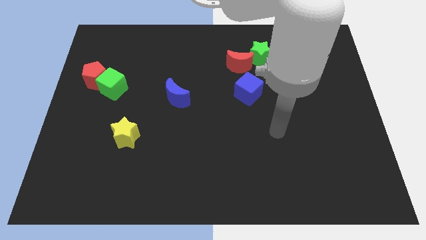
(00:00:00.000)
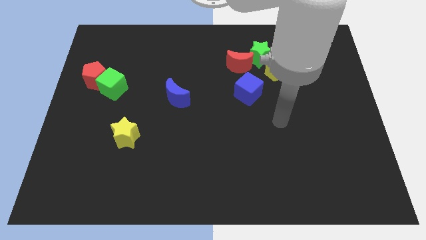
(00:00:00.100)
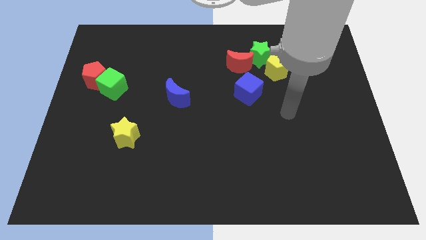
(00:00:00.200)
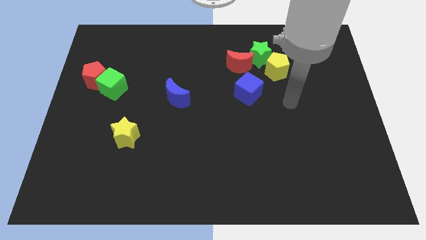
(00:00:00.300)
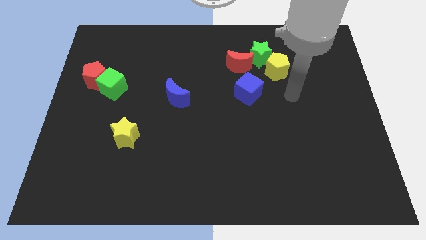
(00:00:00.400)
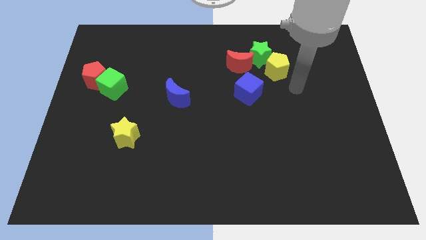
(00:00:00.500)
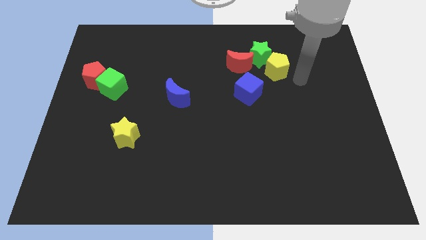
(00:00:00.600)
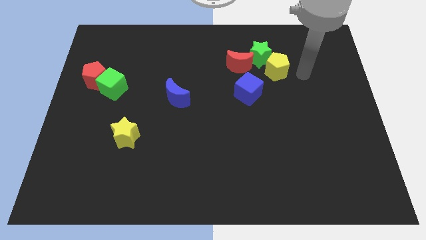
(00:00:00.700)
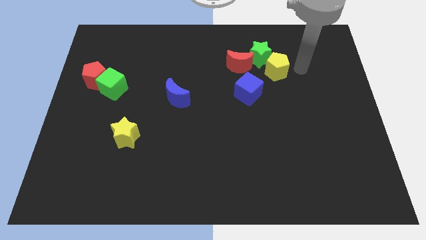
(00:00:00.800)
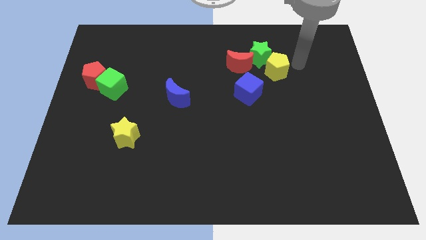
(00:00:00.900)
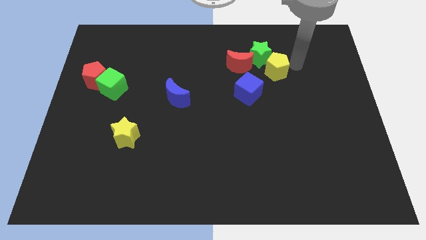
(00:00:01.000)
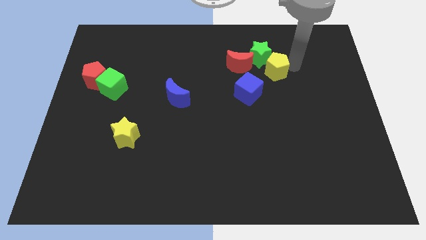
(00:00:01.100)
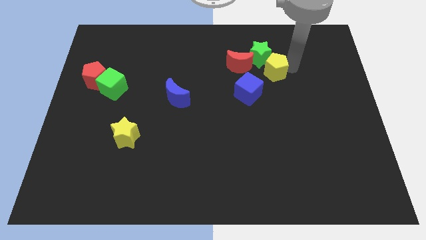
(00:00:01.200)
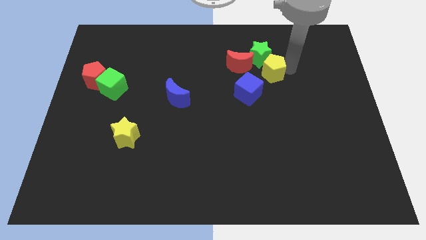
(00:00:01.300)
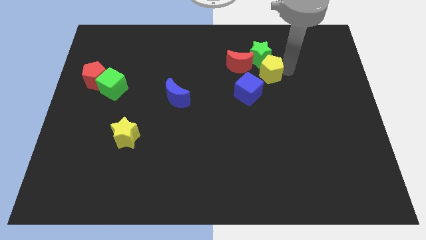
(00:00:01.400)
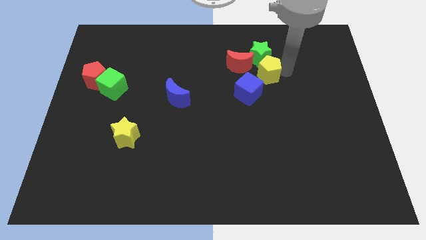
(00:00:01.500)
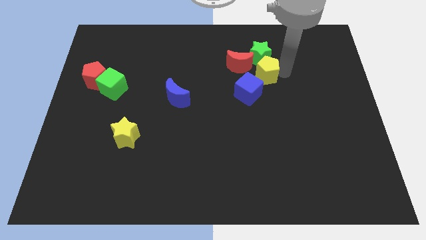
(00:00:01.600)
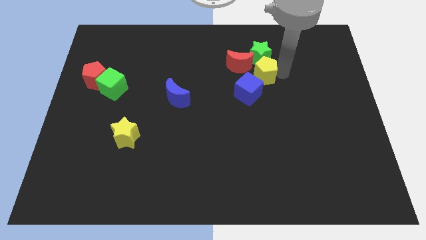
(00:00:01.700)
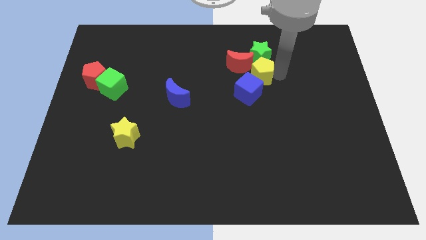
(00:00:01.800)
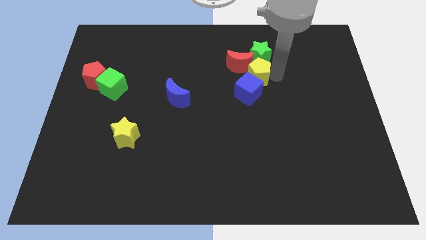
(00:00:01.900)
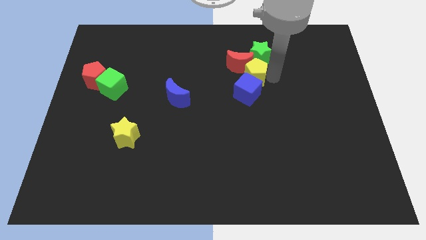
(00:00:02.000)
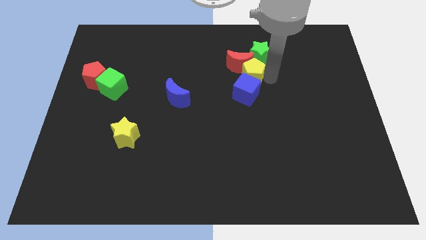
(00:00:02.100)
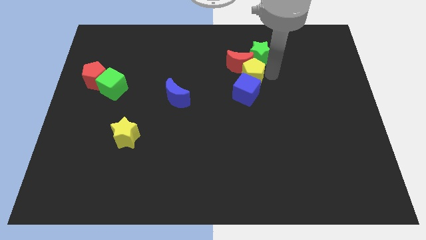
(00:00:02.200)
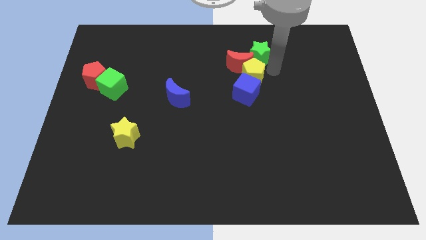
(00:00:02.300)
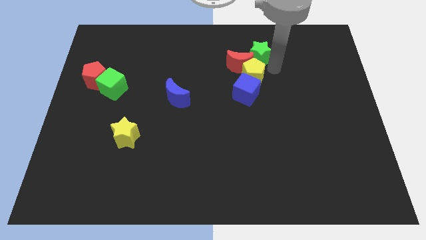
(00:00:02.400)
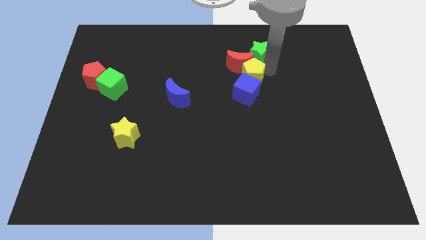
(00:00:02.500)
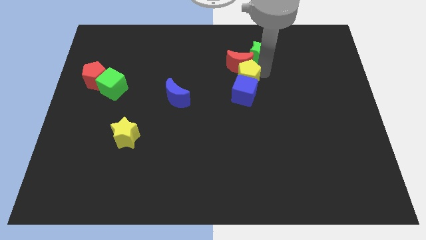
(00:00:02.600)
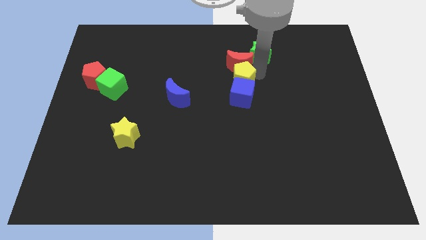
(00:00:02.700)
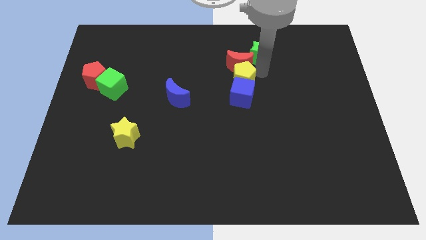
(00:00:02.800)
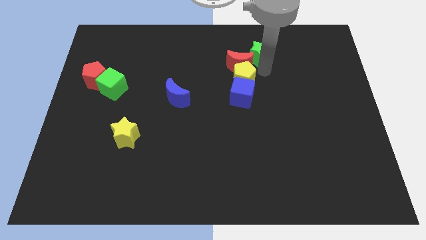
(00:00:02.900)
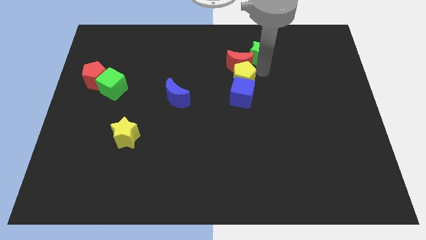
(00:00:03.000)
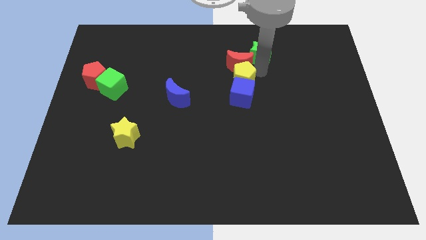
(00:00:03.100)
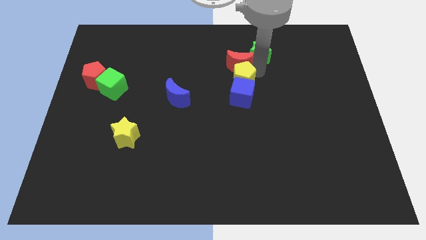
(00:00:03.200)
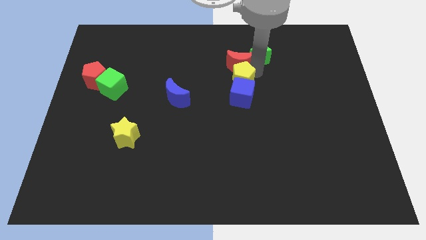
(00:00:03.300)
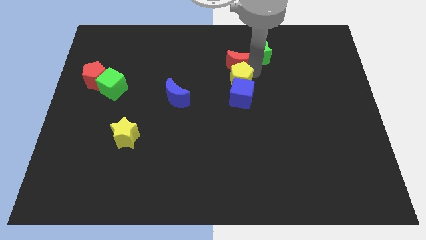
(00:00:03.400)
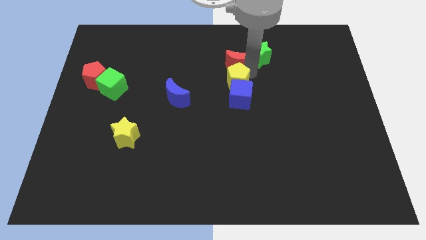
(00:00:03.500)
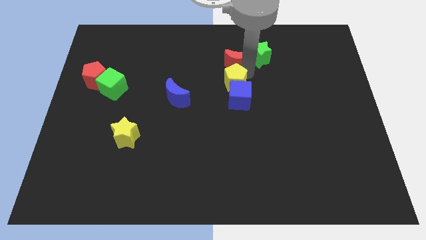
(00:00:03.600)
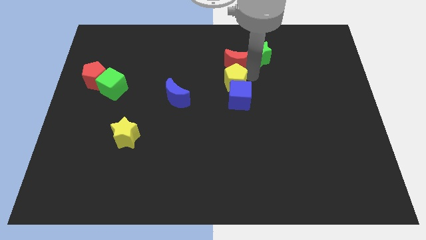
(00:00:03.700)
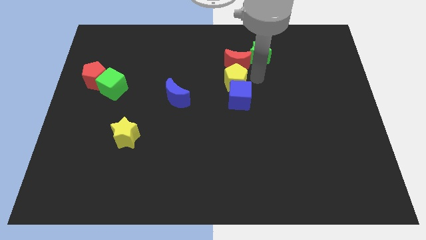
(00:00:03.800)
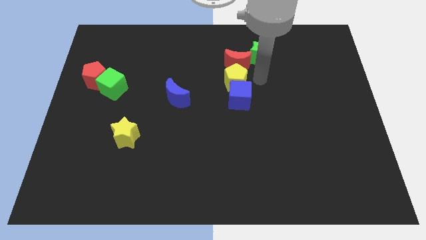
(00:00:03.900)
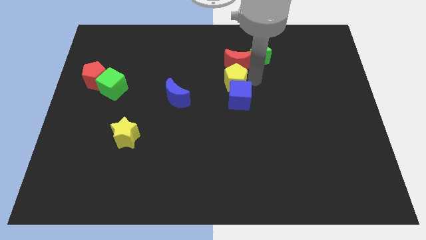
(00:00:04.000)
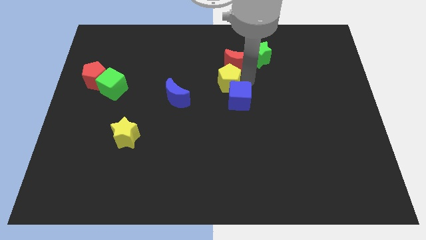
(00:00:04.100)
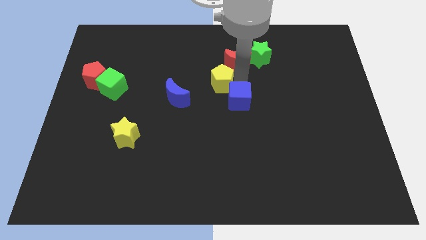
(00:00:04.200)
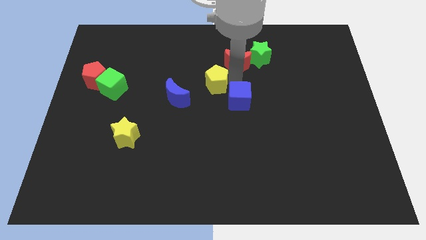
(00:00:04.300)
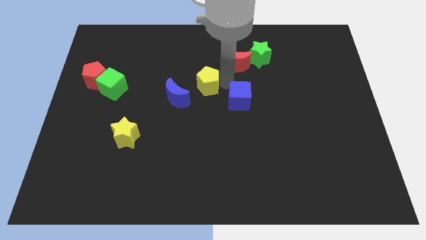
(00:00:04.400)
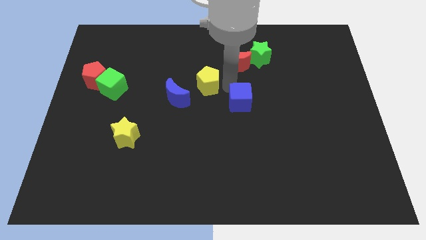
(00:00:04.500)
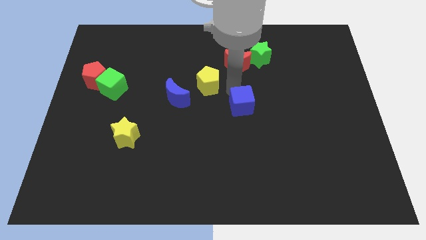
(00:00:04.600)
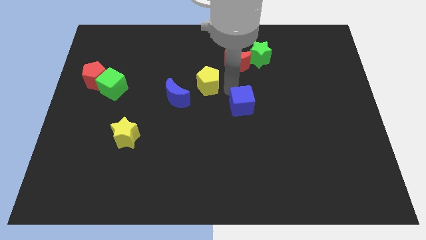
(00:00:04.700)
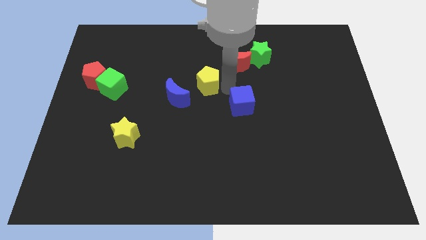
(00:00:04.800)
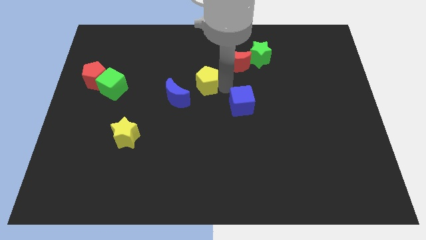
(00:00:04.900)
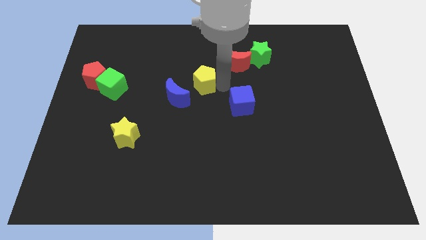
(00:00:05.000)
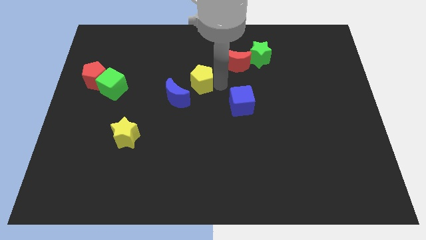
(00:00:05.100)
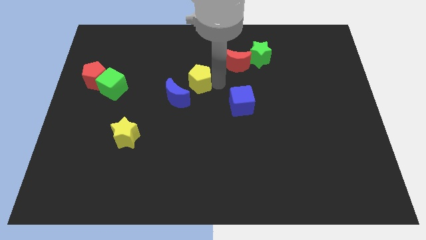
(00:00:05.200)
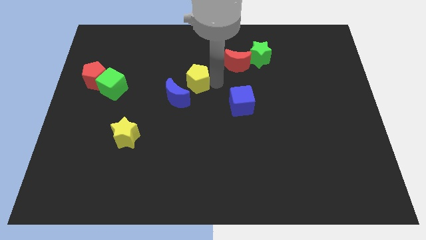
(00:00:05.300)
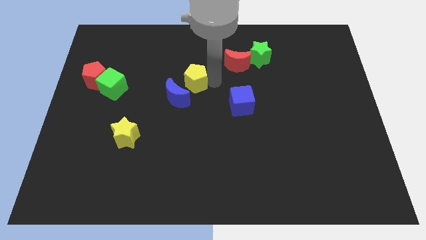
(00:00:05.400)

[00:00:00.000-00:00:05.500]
move the yellow pentagon to the left

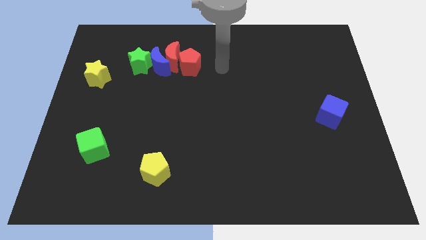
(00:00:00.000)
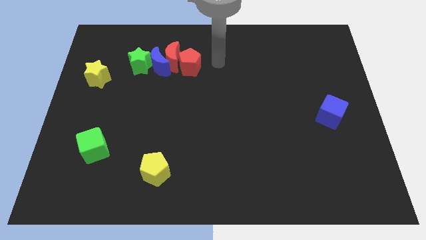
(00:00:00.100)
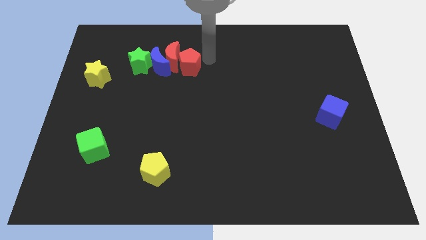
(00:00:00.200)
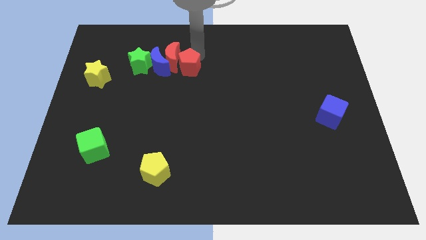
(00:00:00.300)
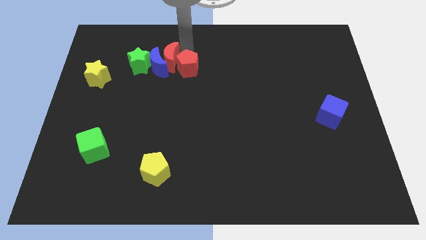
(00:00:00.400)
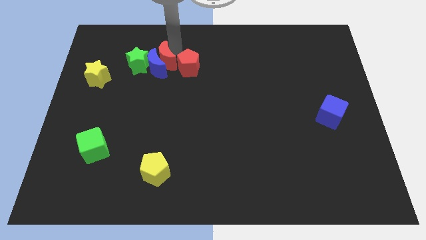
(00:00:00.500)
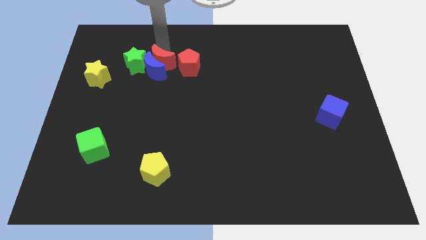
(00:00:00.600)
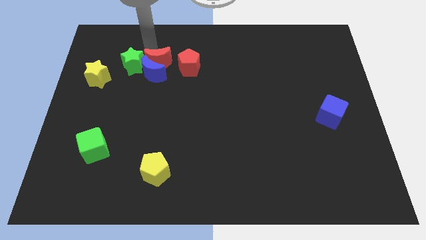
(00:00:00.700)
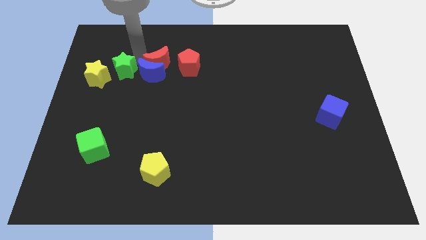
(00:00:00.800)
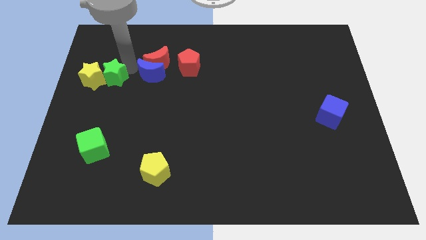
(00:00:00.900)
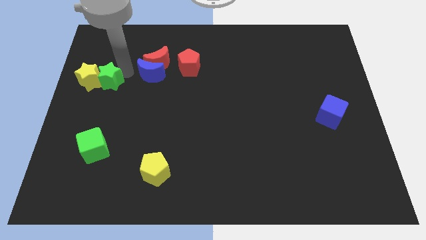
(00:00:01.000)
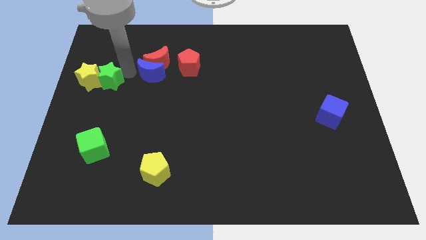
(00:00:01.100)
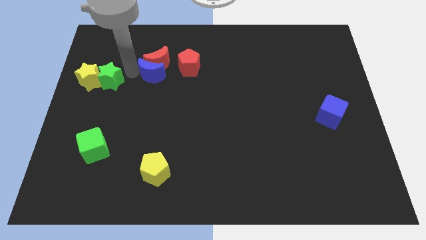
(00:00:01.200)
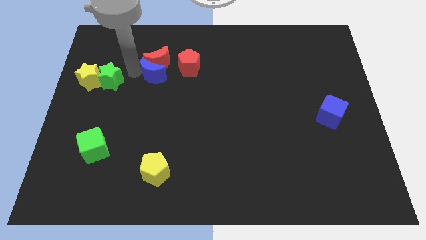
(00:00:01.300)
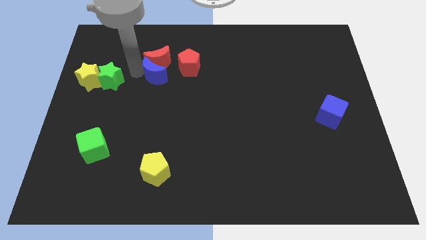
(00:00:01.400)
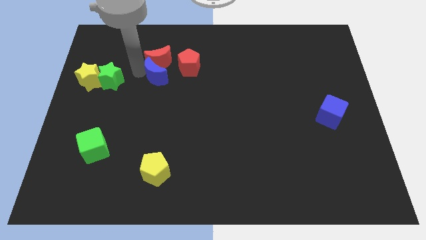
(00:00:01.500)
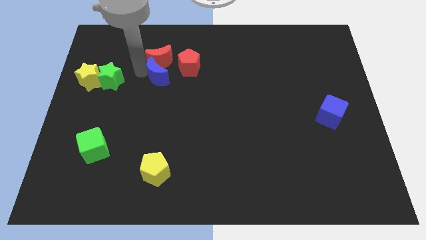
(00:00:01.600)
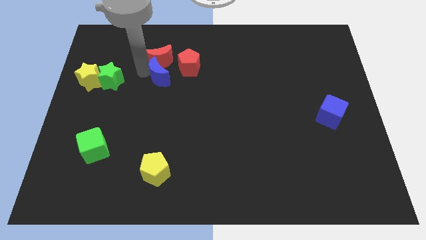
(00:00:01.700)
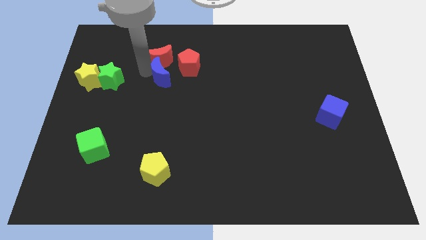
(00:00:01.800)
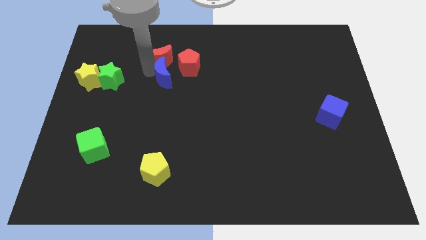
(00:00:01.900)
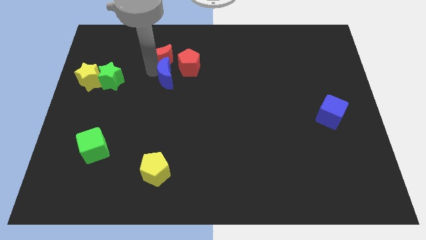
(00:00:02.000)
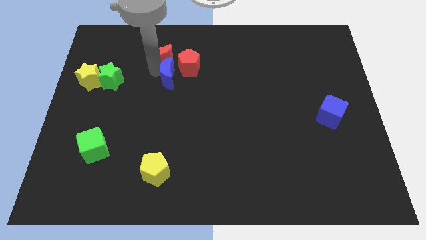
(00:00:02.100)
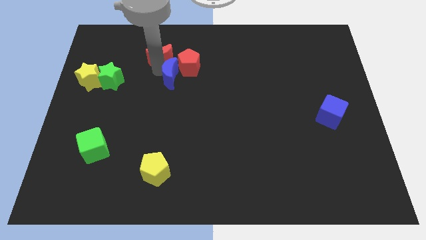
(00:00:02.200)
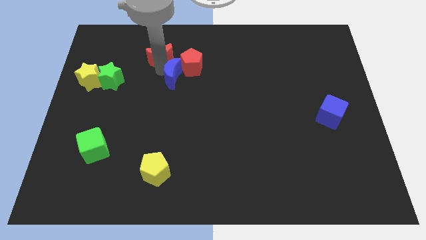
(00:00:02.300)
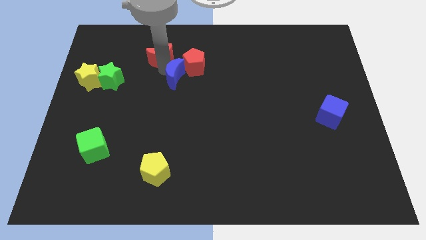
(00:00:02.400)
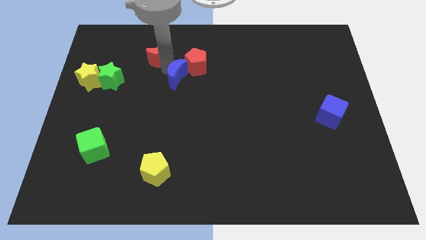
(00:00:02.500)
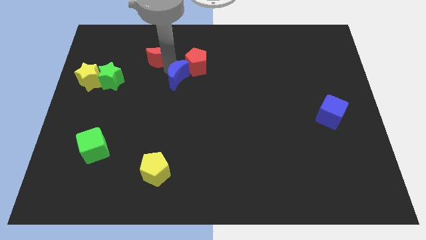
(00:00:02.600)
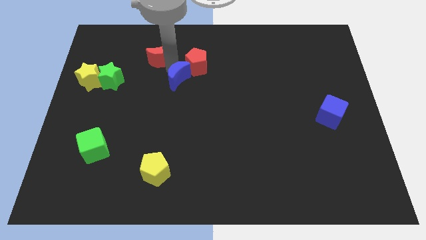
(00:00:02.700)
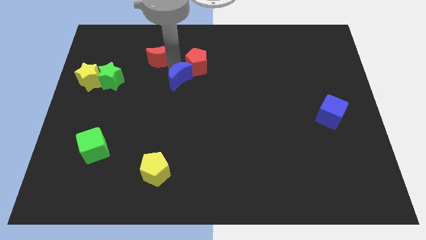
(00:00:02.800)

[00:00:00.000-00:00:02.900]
slightly slide the blue moon down and to the right diagonally
